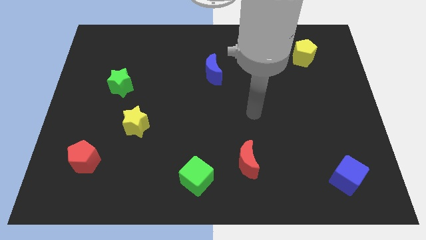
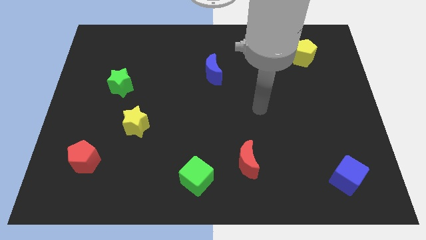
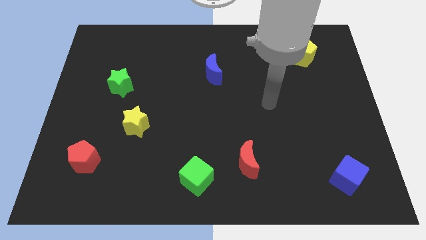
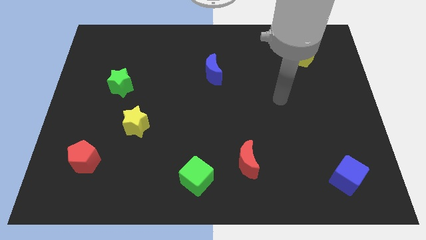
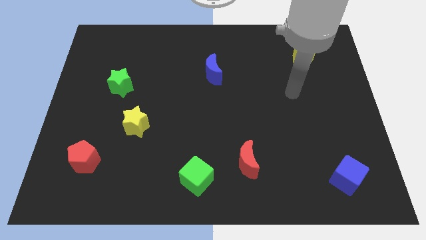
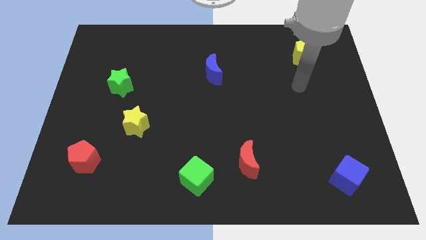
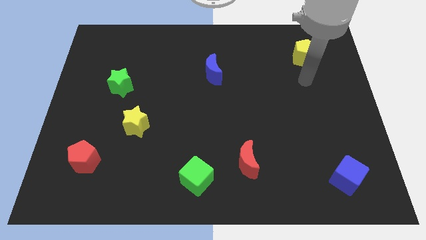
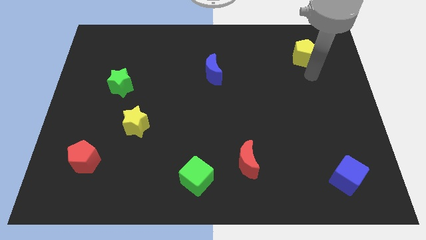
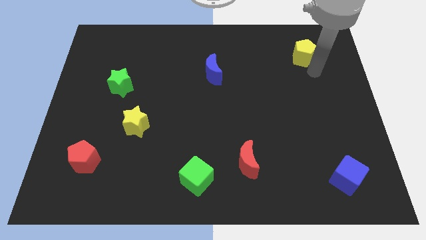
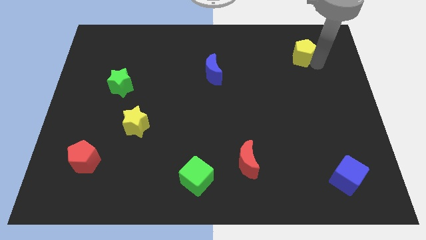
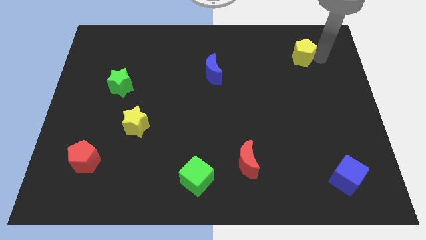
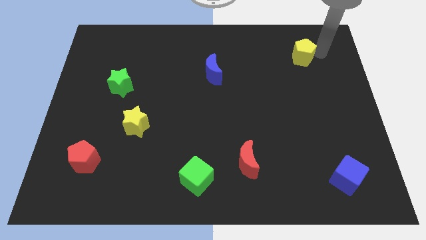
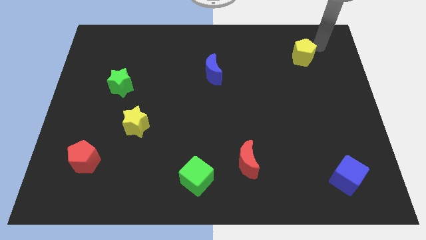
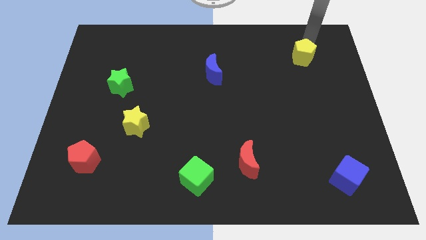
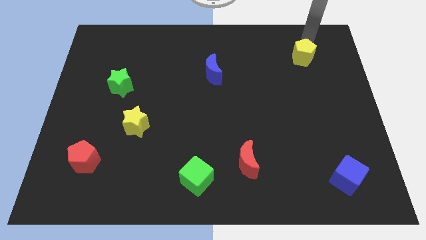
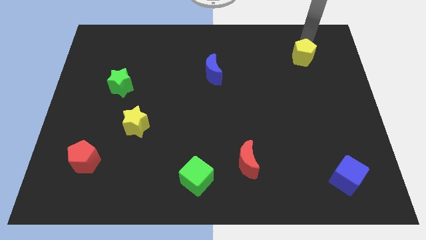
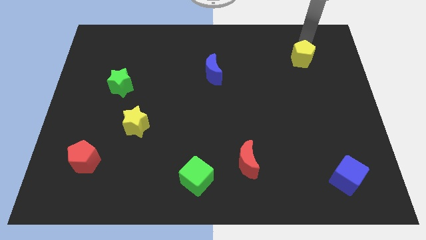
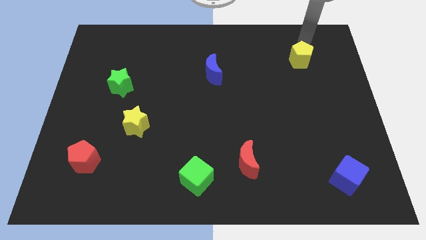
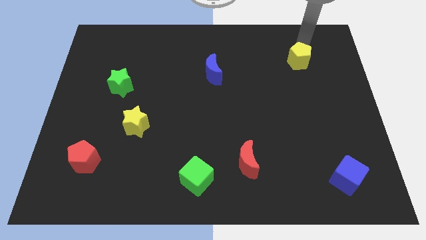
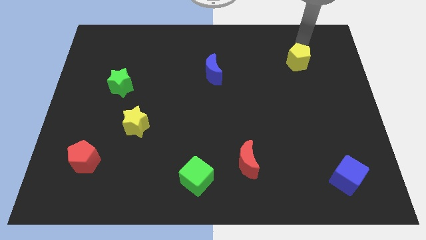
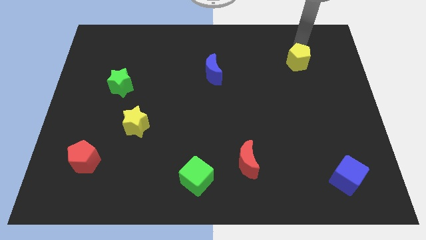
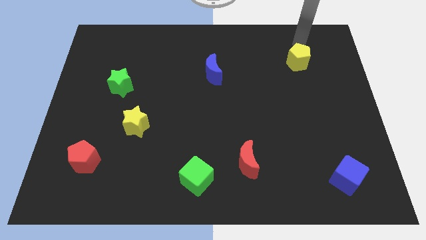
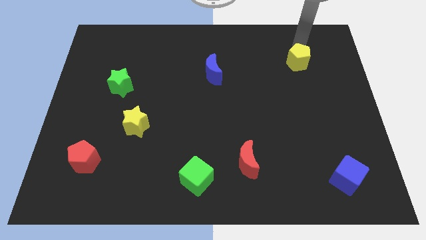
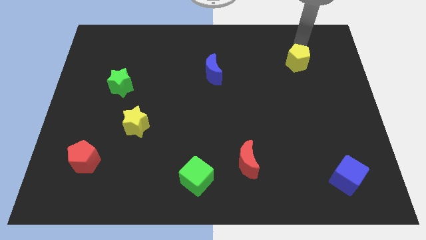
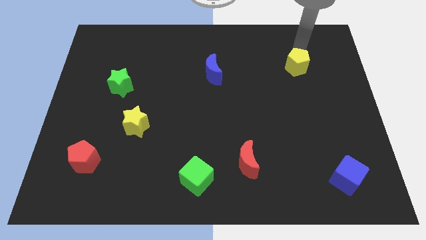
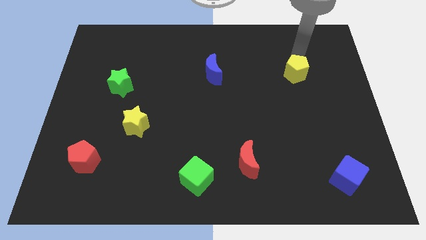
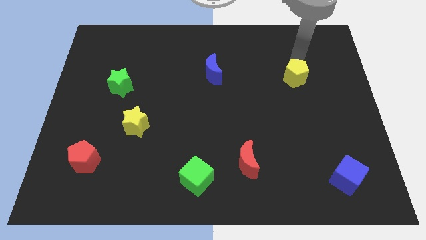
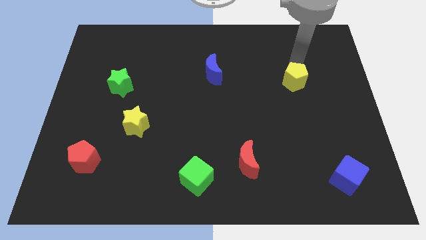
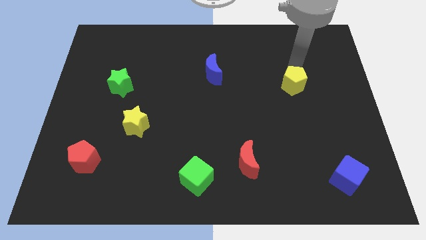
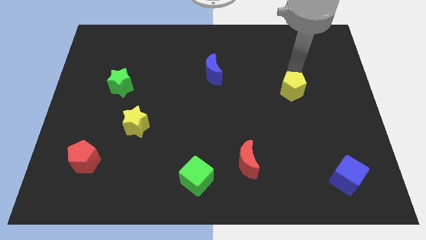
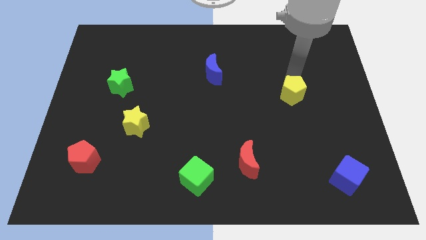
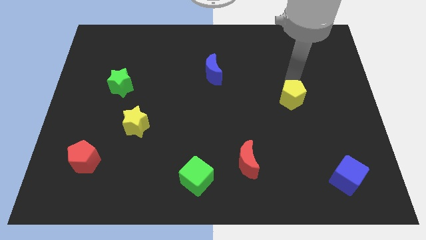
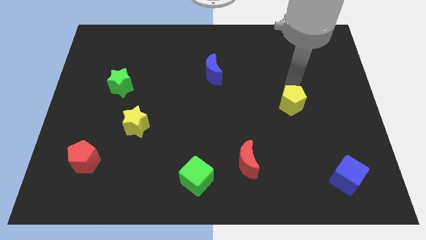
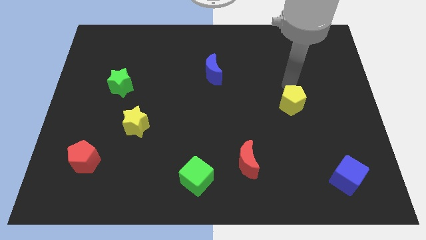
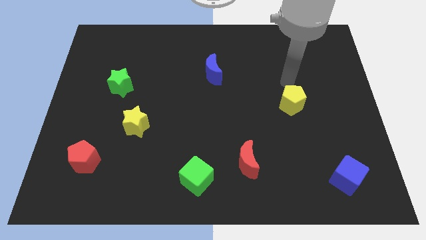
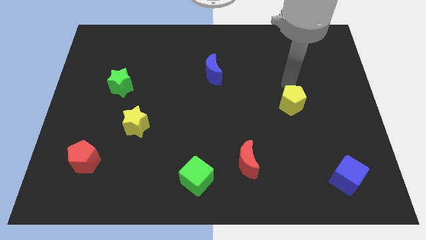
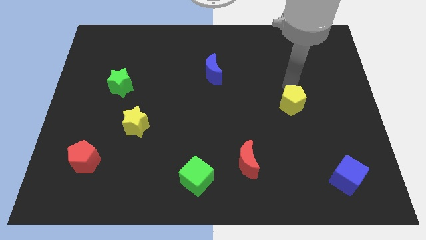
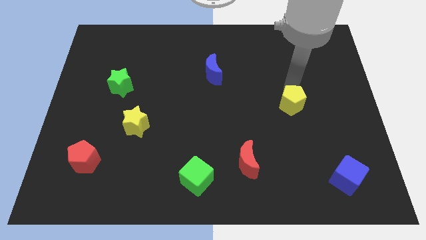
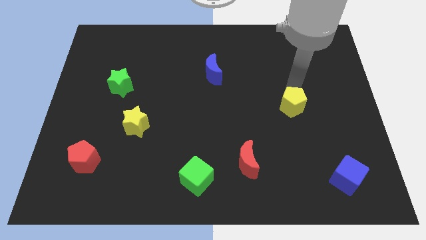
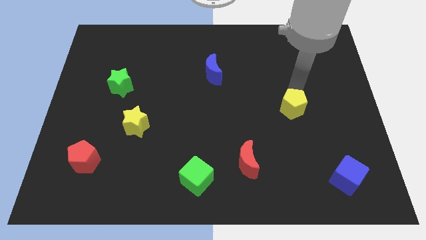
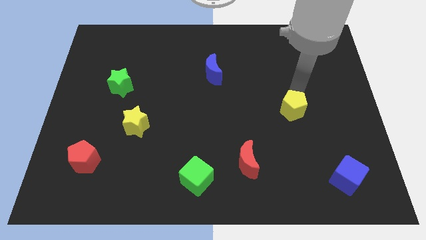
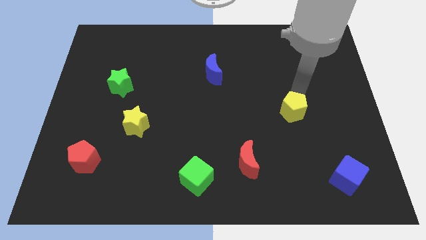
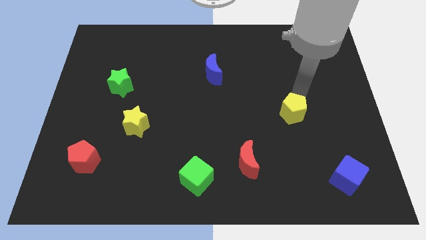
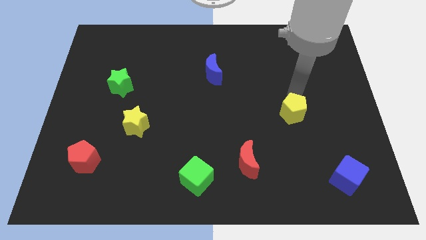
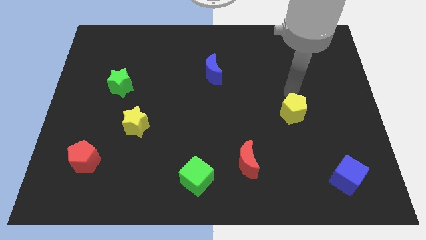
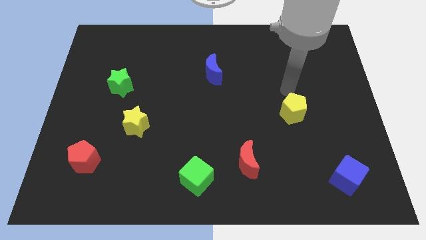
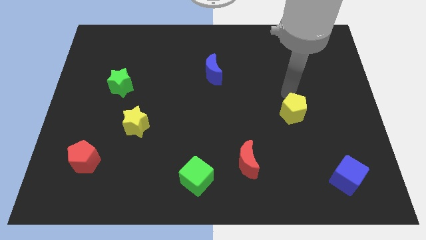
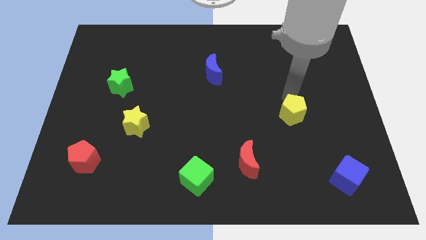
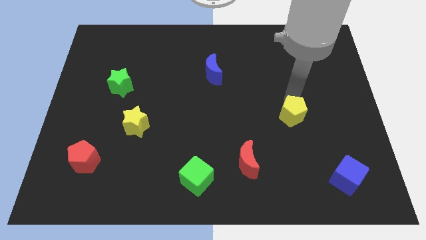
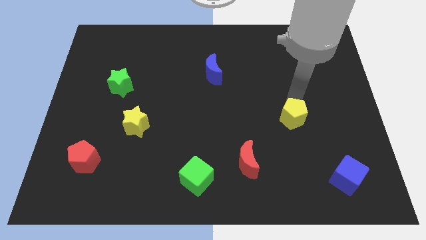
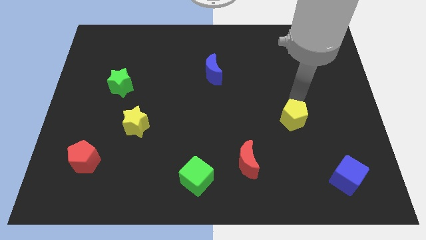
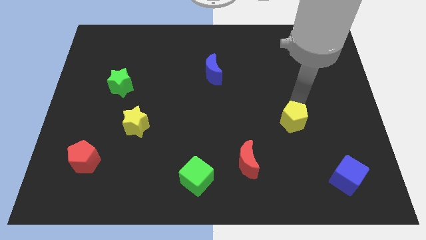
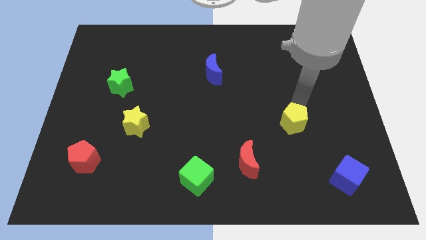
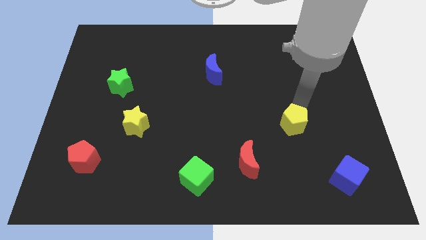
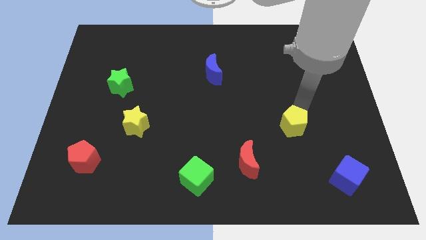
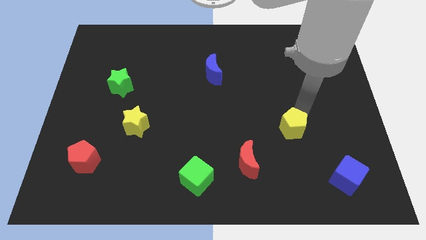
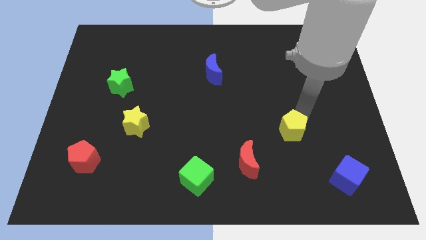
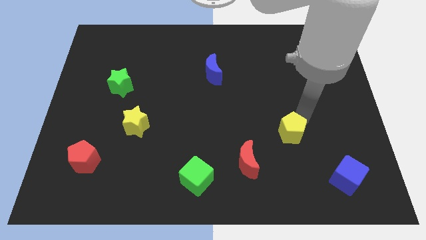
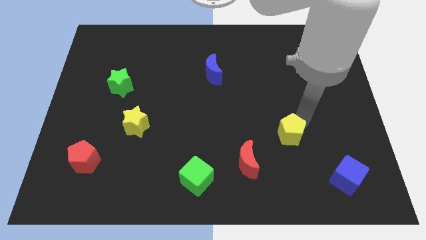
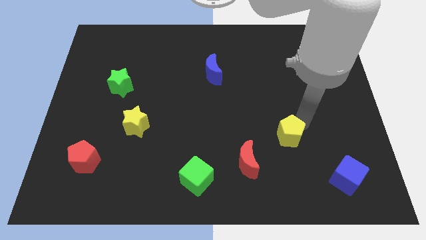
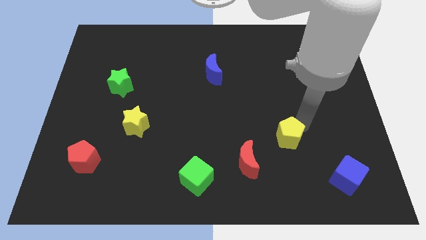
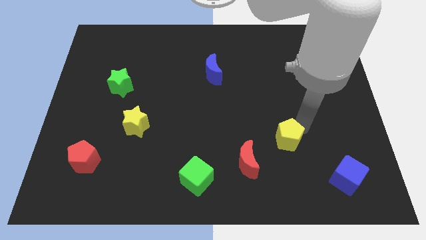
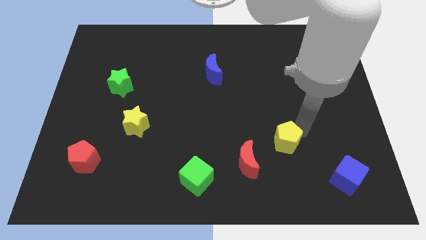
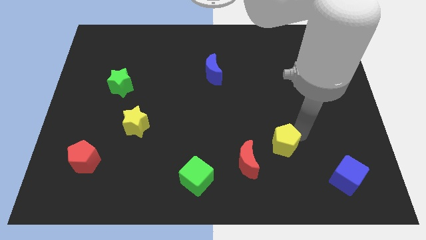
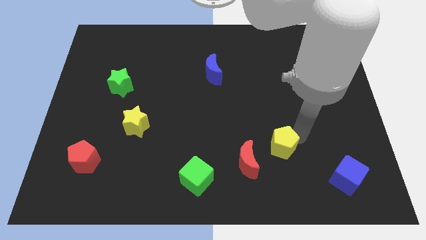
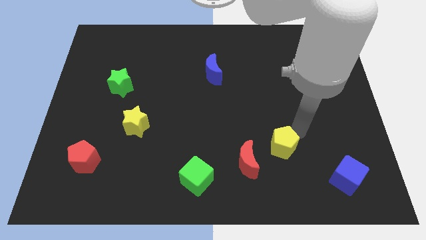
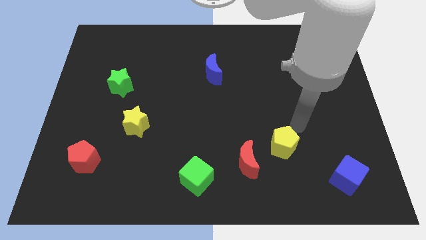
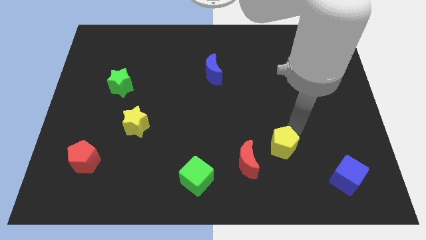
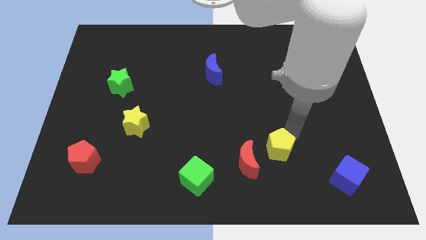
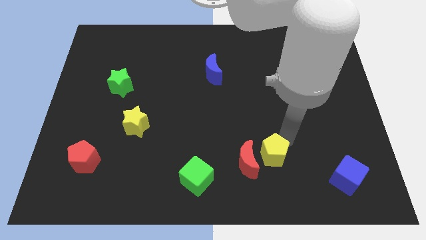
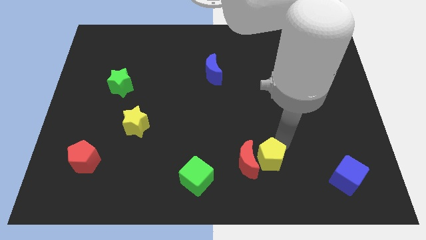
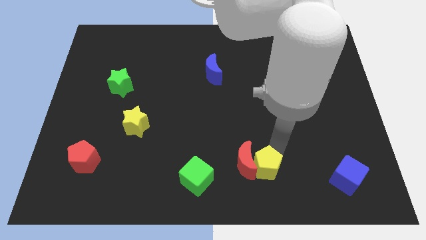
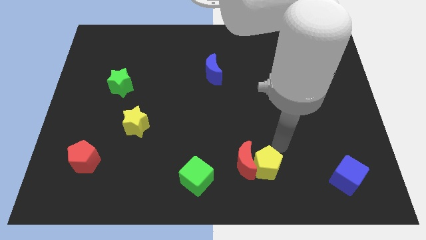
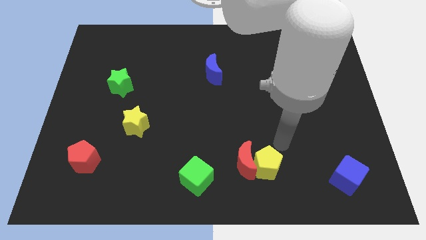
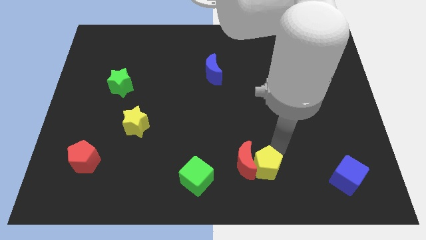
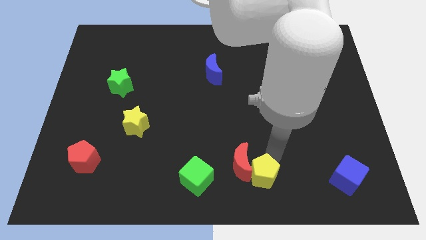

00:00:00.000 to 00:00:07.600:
push the yellow pentagon to the bottom

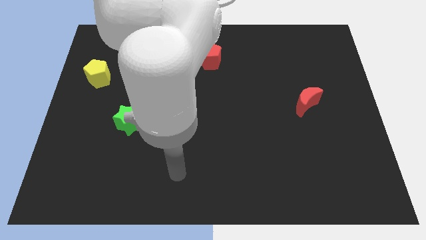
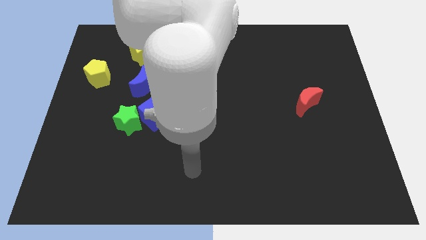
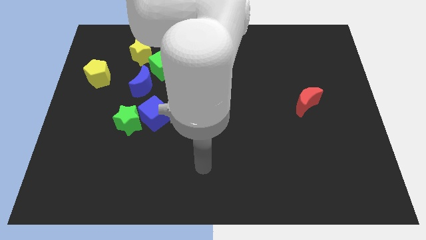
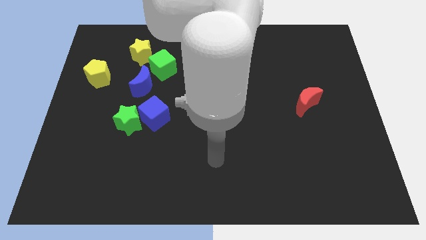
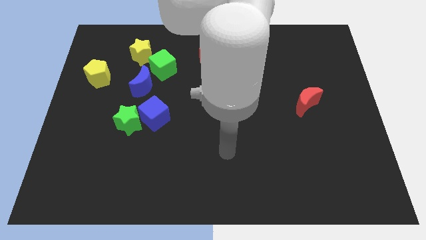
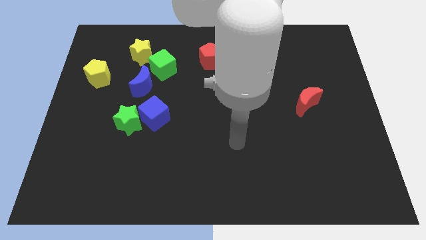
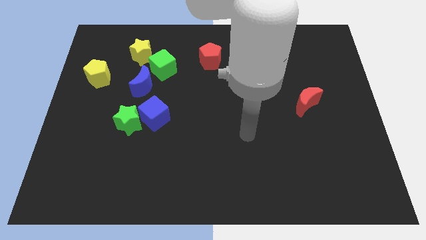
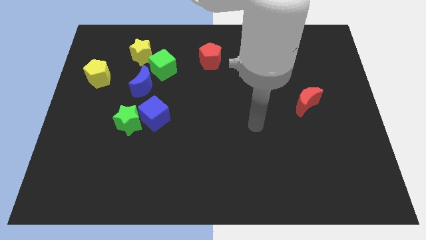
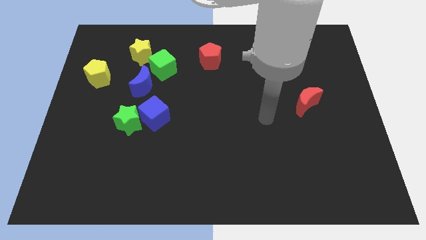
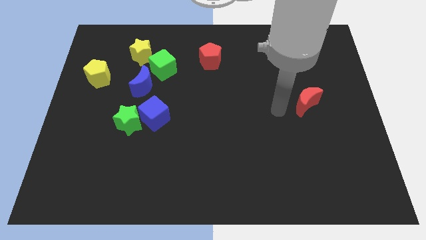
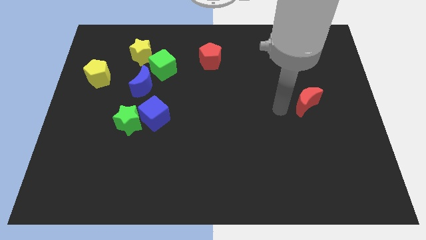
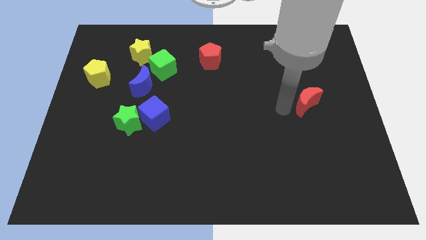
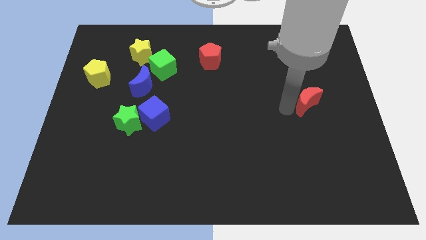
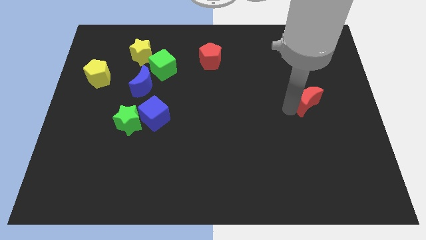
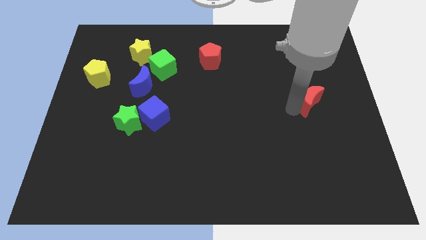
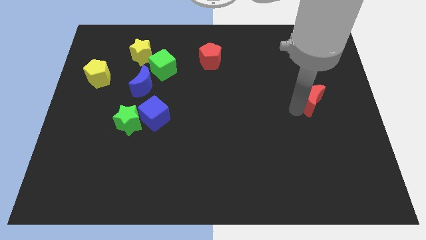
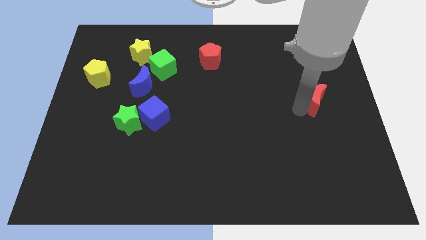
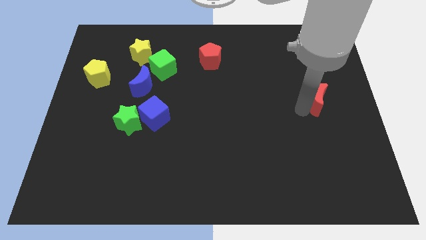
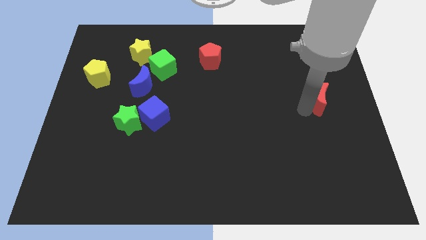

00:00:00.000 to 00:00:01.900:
put the red moon to the right side of the board
